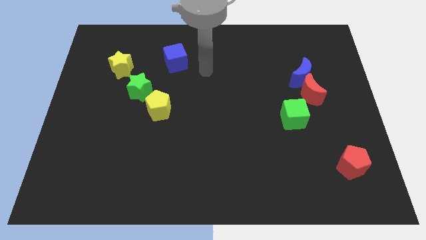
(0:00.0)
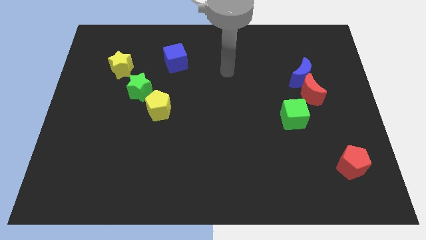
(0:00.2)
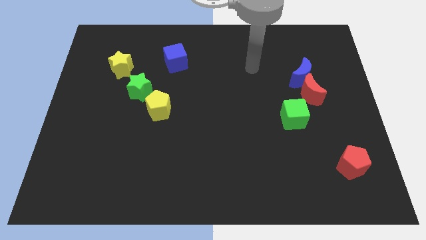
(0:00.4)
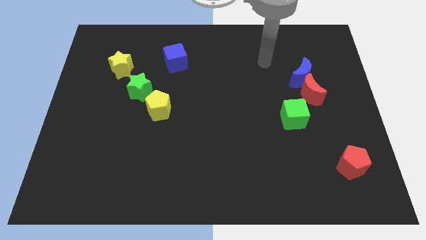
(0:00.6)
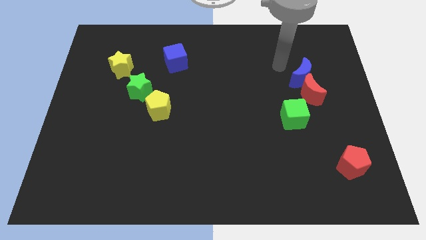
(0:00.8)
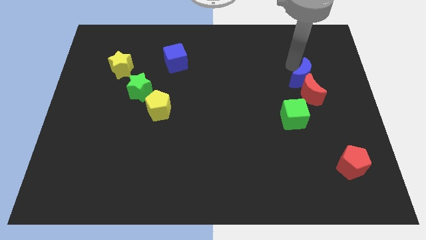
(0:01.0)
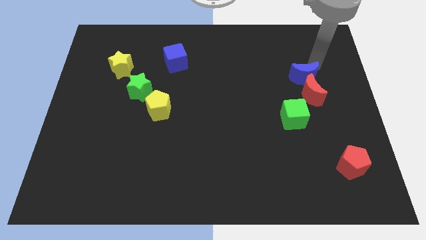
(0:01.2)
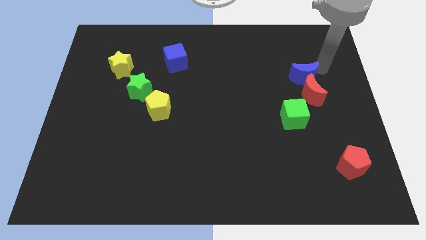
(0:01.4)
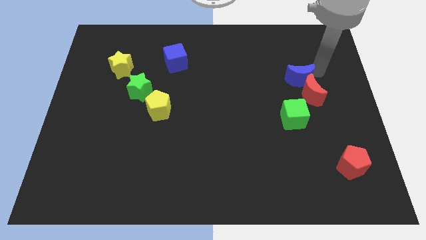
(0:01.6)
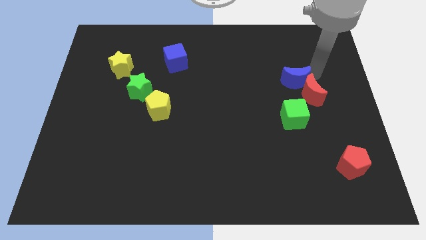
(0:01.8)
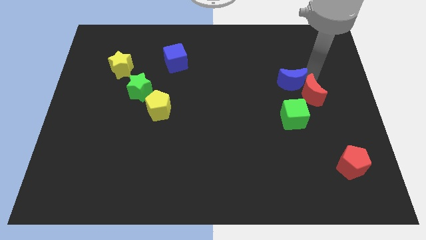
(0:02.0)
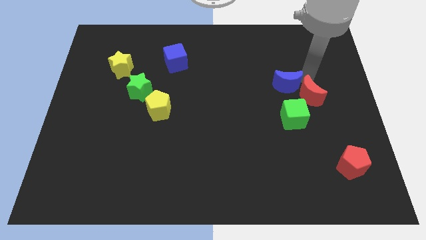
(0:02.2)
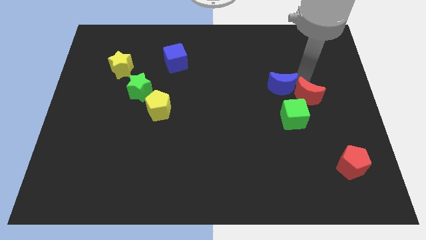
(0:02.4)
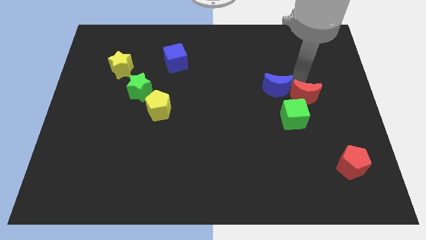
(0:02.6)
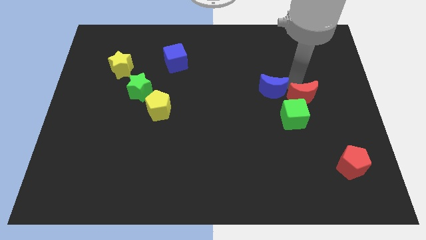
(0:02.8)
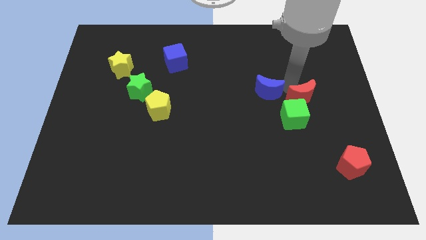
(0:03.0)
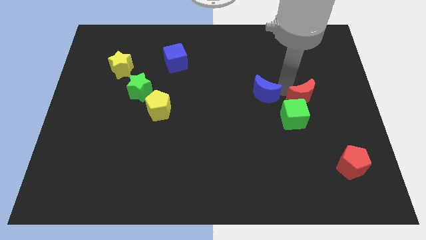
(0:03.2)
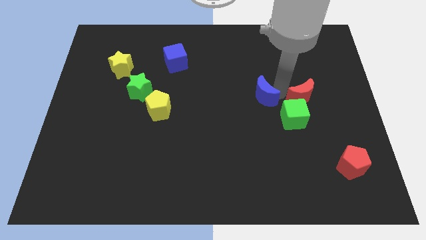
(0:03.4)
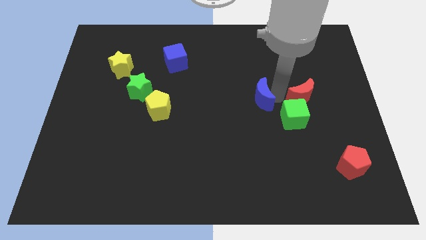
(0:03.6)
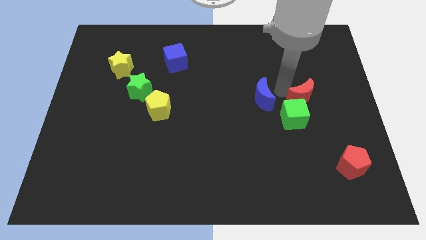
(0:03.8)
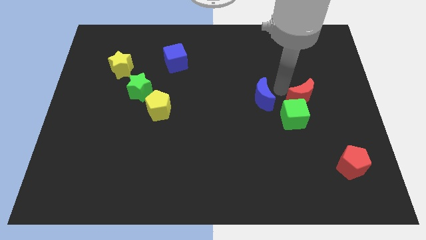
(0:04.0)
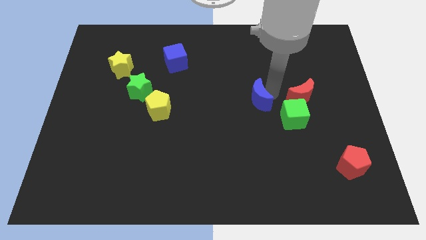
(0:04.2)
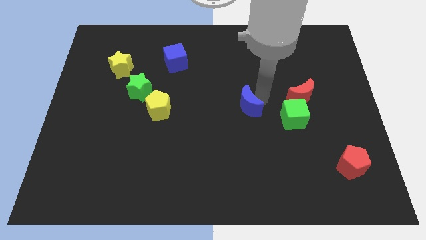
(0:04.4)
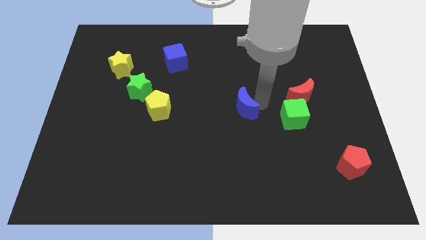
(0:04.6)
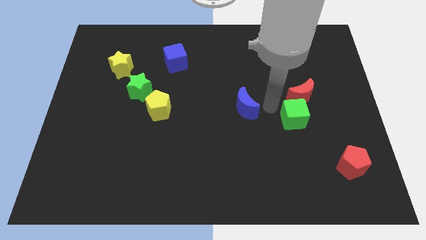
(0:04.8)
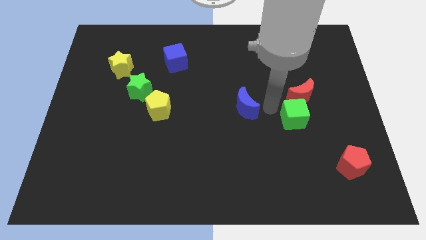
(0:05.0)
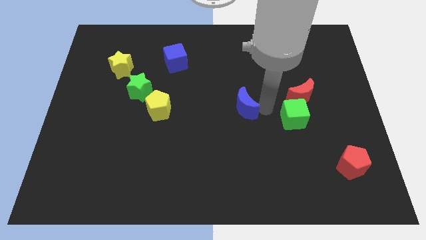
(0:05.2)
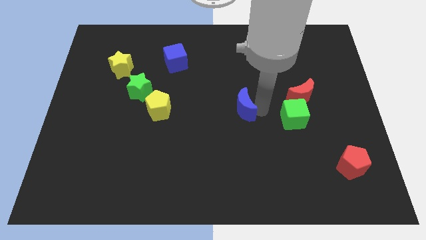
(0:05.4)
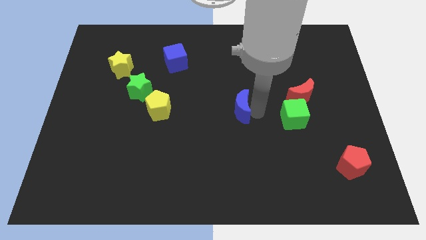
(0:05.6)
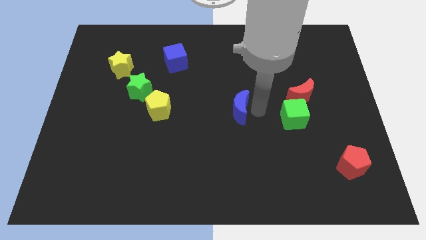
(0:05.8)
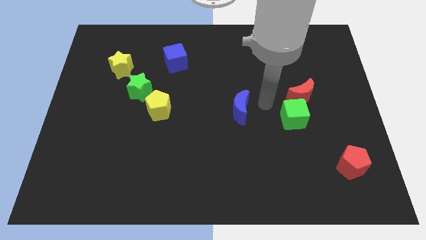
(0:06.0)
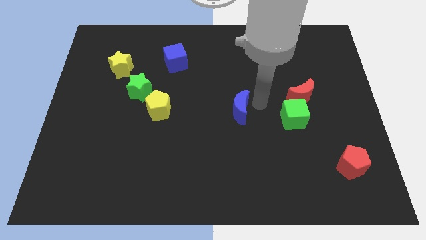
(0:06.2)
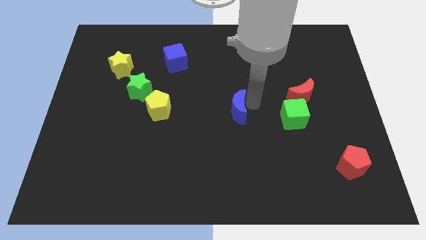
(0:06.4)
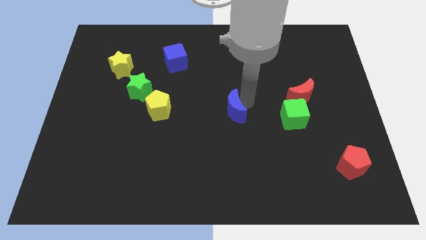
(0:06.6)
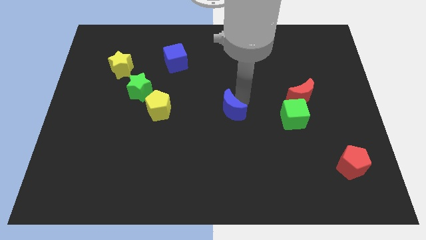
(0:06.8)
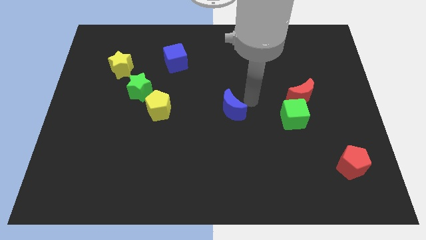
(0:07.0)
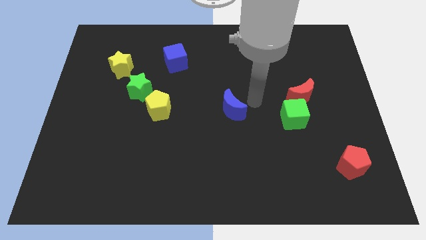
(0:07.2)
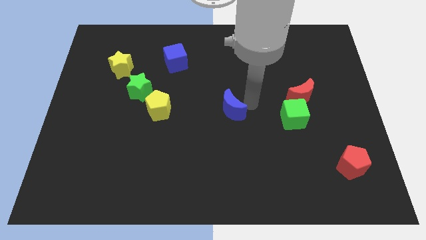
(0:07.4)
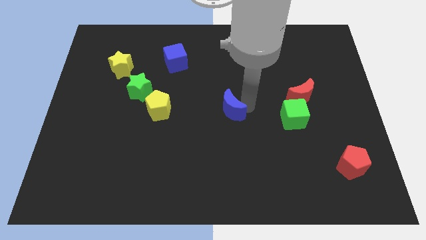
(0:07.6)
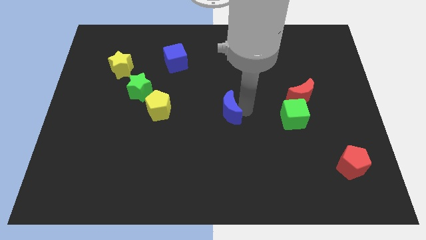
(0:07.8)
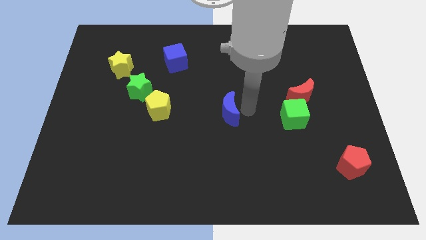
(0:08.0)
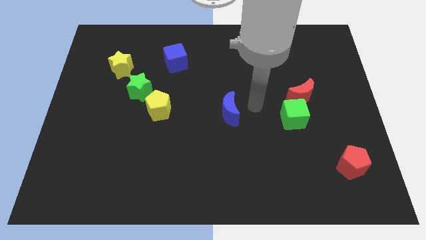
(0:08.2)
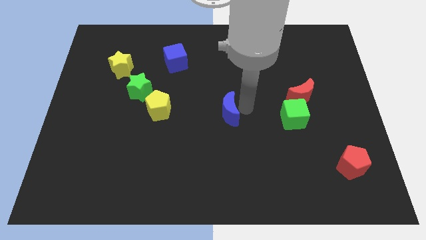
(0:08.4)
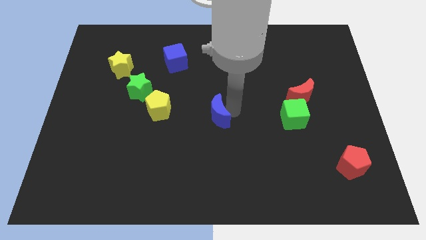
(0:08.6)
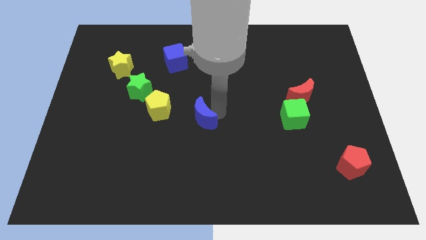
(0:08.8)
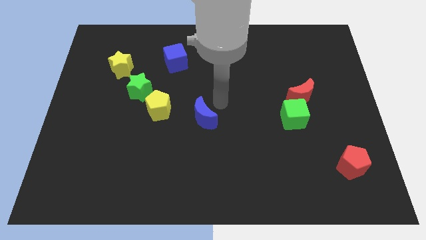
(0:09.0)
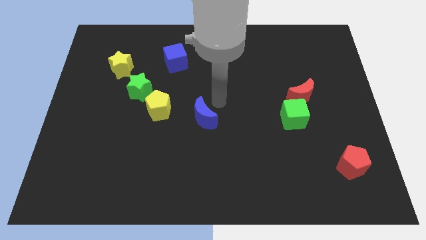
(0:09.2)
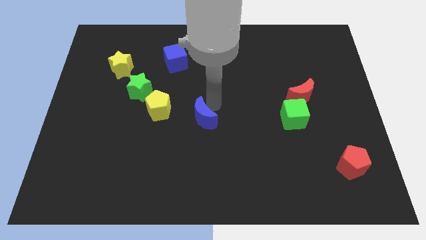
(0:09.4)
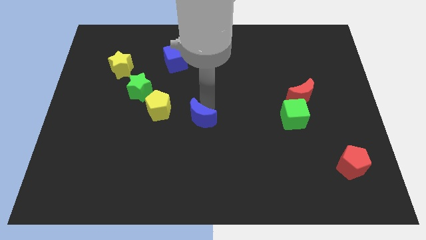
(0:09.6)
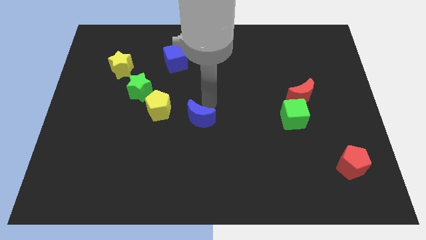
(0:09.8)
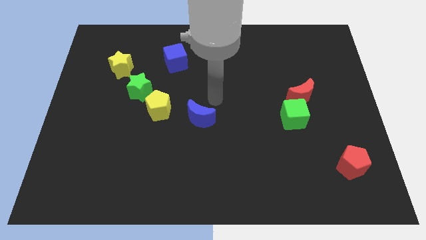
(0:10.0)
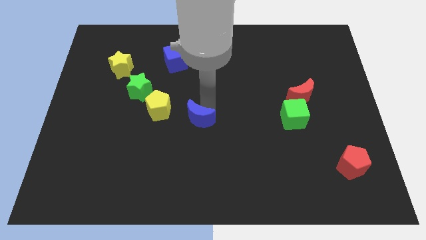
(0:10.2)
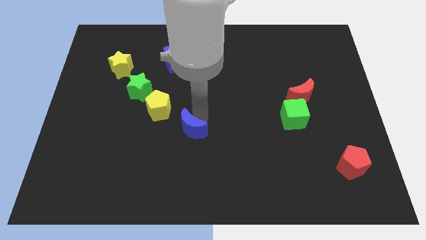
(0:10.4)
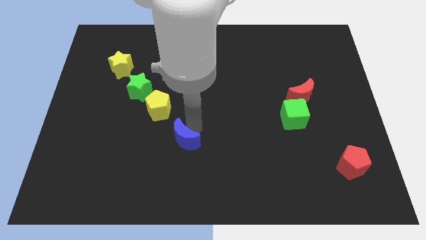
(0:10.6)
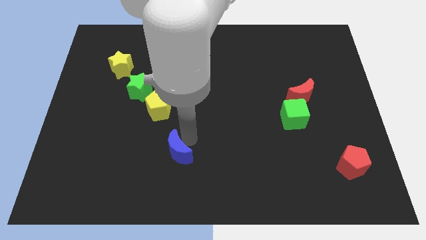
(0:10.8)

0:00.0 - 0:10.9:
move the blue moon below the yellow pentagon
